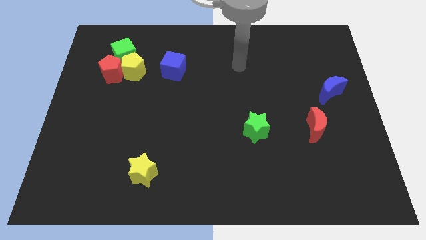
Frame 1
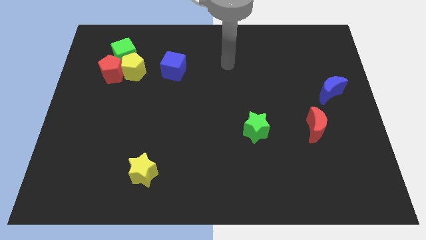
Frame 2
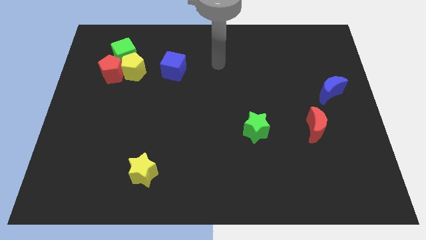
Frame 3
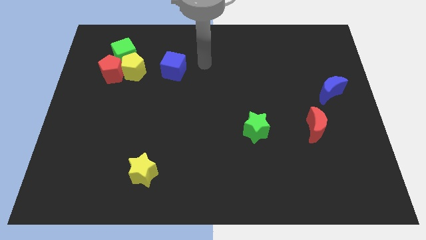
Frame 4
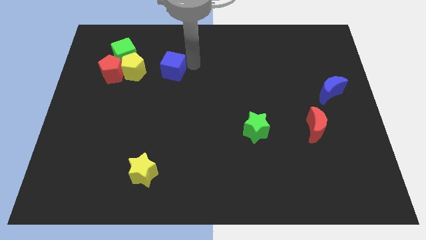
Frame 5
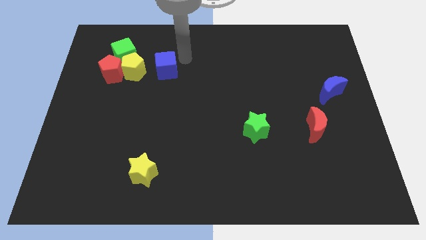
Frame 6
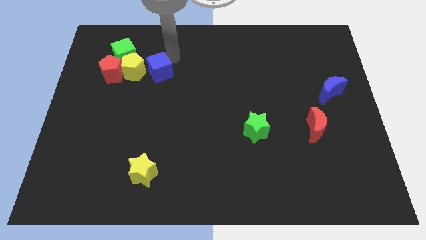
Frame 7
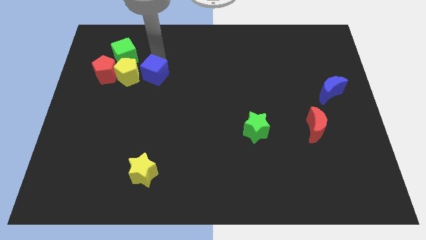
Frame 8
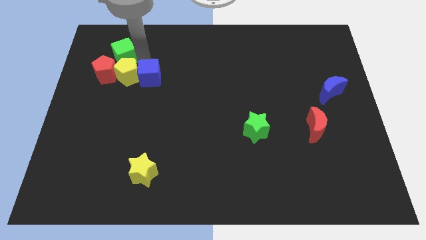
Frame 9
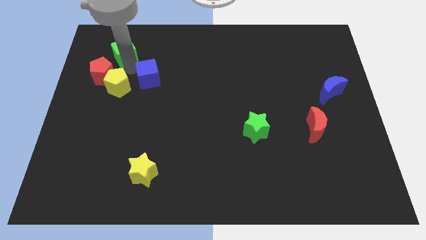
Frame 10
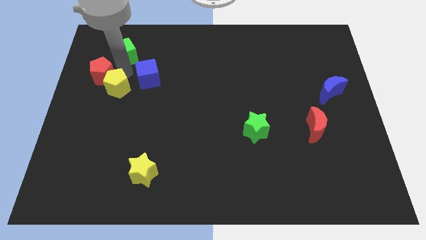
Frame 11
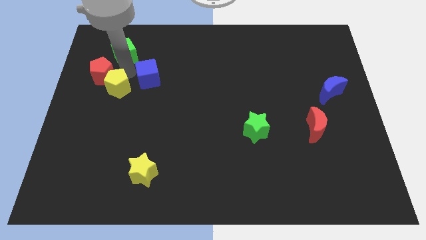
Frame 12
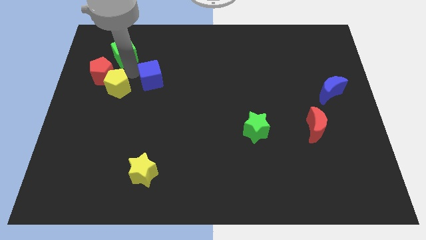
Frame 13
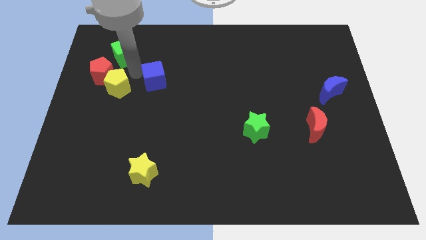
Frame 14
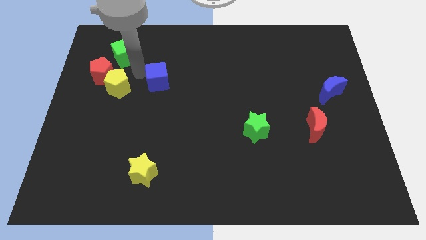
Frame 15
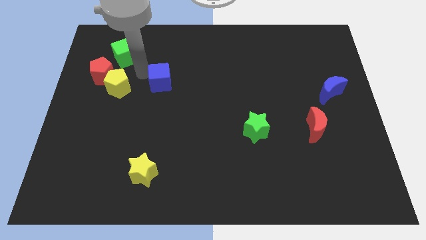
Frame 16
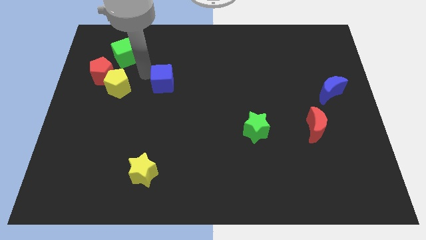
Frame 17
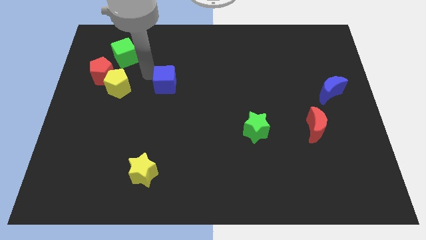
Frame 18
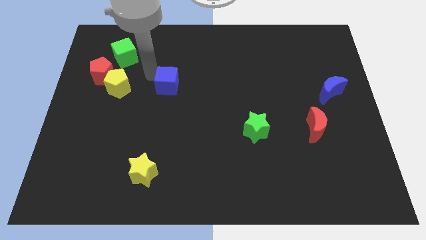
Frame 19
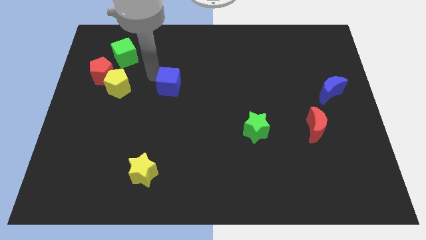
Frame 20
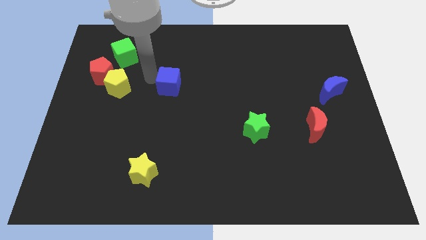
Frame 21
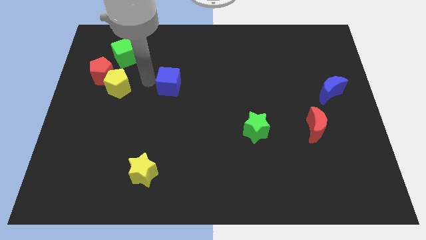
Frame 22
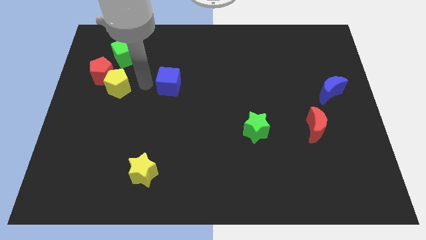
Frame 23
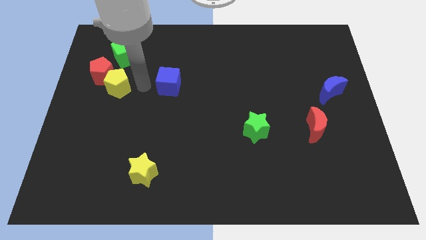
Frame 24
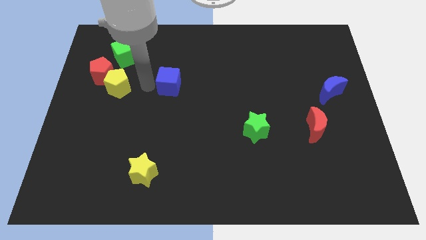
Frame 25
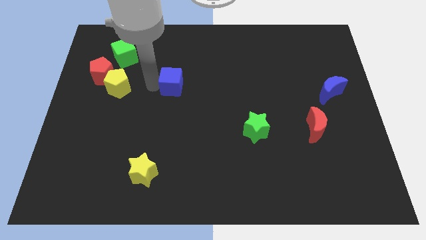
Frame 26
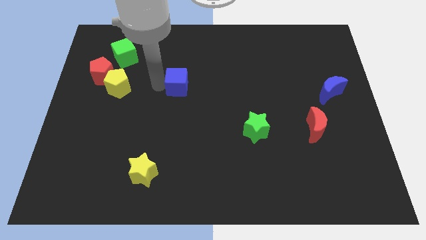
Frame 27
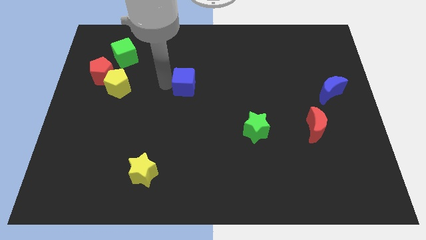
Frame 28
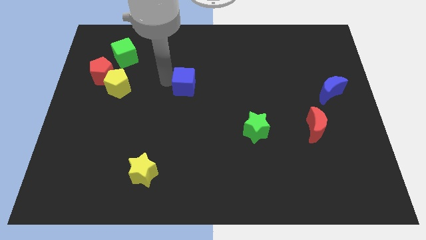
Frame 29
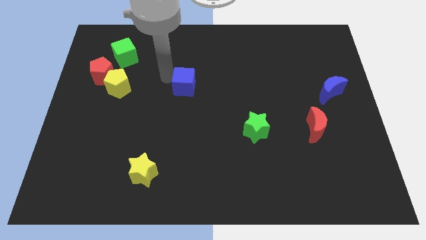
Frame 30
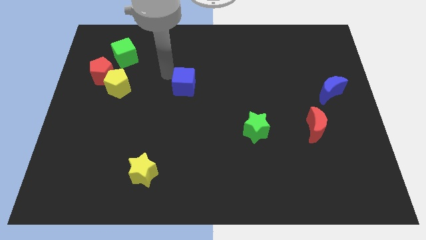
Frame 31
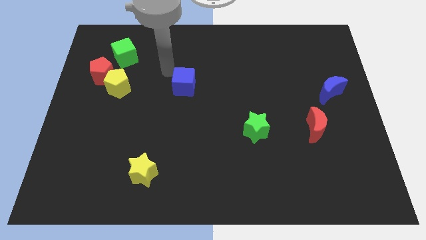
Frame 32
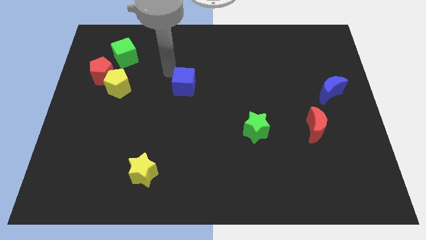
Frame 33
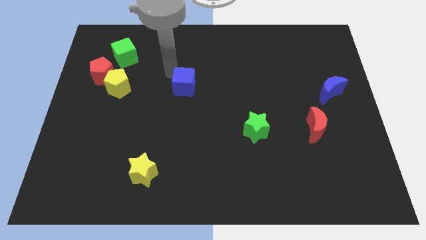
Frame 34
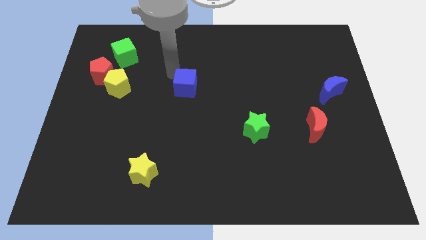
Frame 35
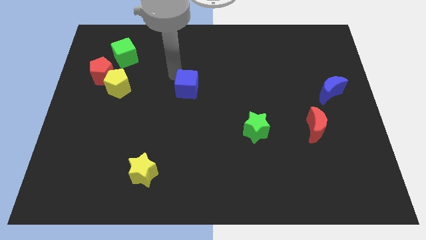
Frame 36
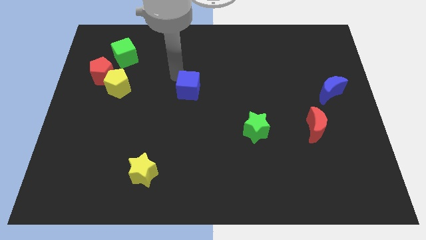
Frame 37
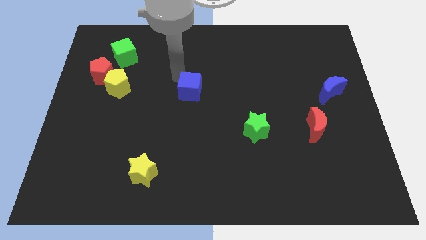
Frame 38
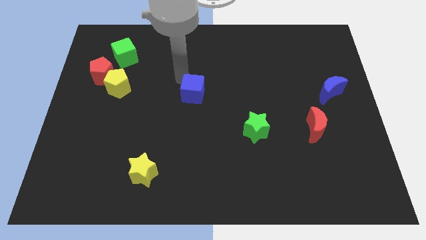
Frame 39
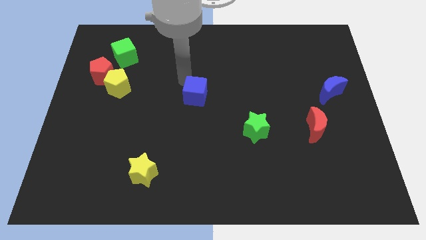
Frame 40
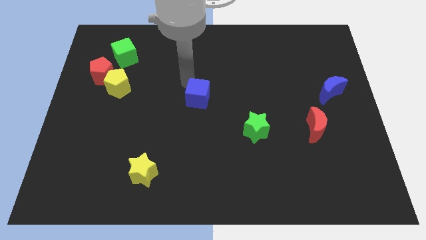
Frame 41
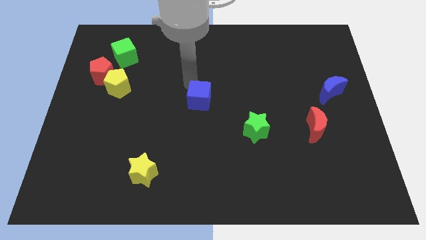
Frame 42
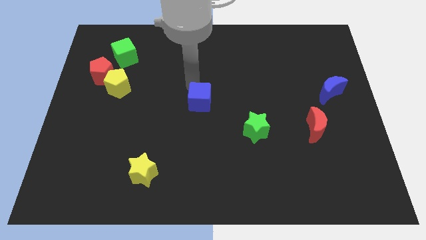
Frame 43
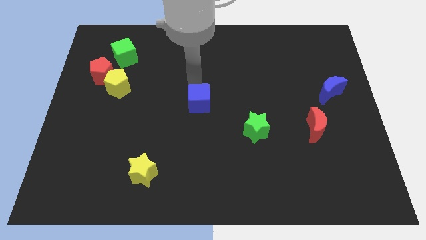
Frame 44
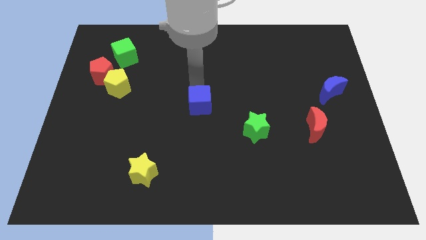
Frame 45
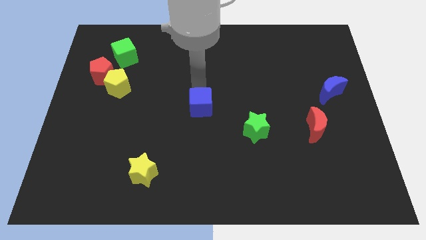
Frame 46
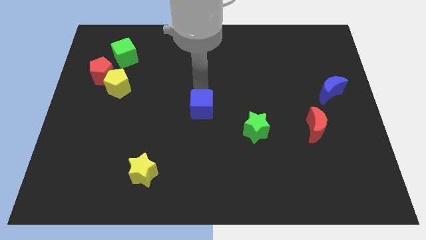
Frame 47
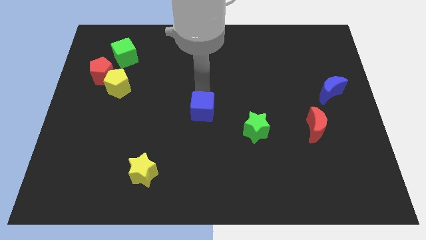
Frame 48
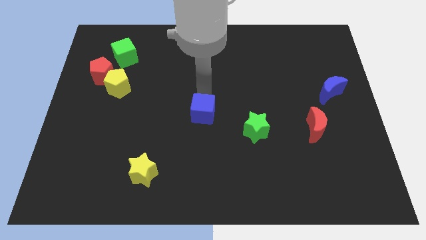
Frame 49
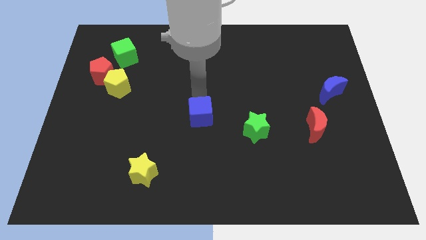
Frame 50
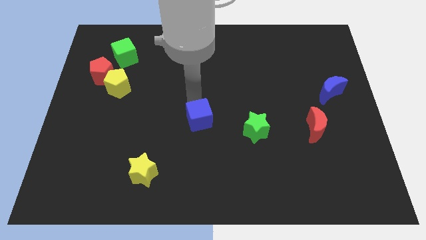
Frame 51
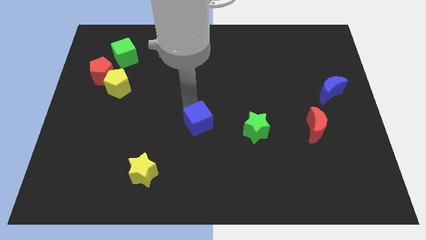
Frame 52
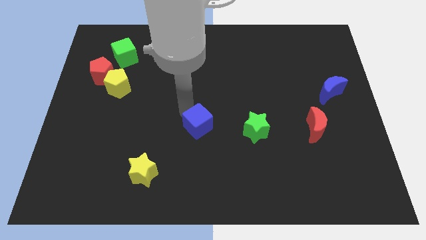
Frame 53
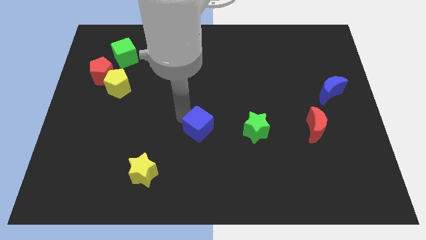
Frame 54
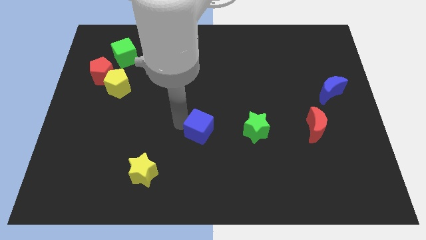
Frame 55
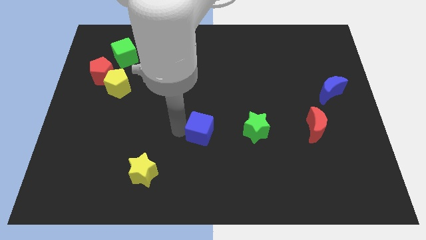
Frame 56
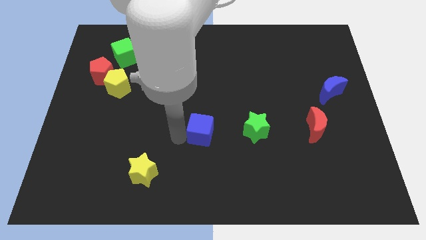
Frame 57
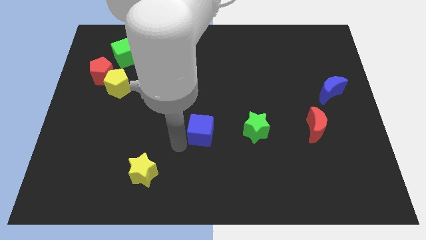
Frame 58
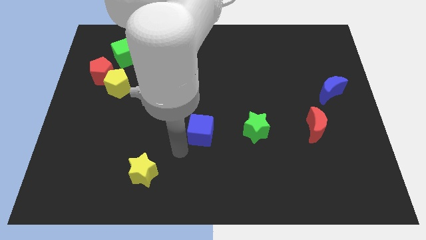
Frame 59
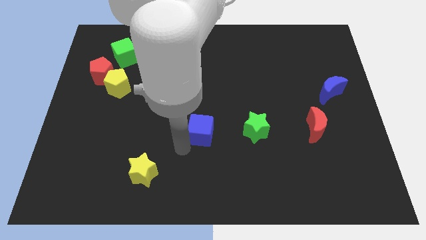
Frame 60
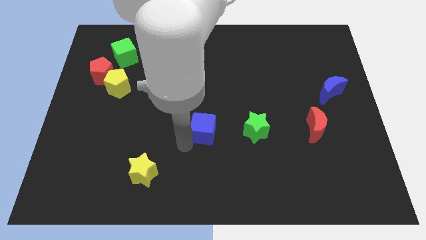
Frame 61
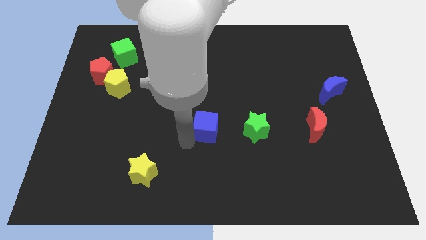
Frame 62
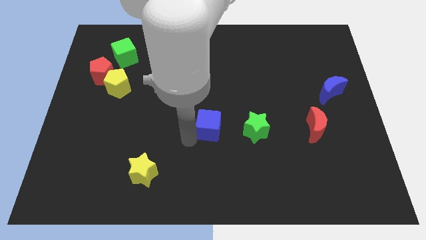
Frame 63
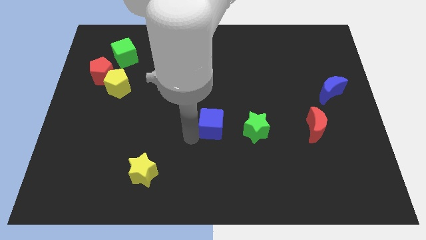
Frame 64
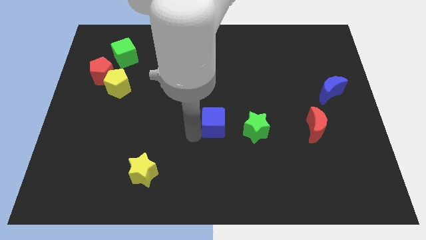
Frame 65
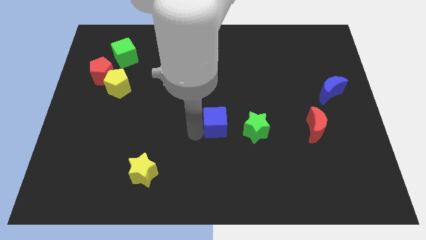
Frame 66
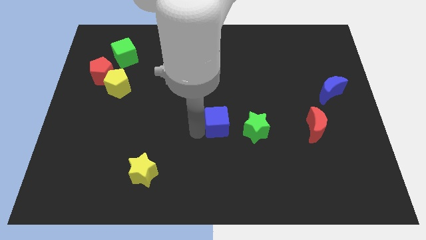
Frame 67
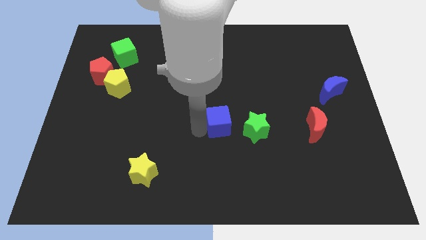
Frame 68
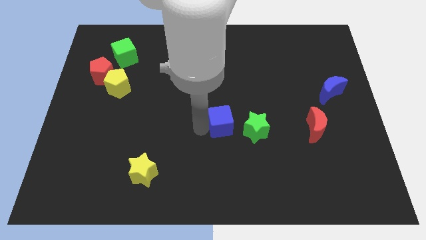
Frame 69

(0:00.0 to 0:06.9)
move the blue cube diagonally down and to the right

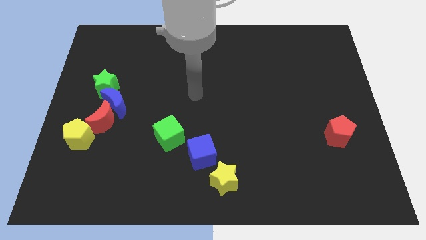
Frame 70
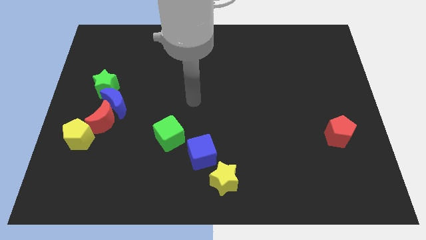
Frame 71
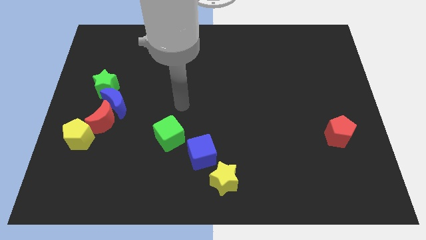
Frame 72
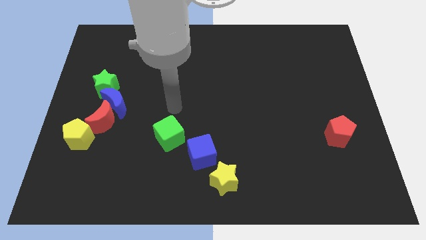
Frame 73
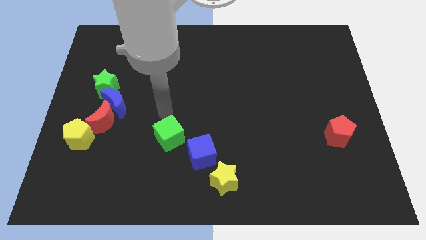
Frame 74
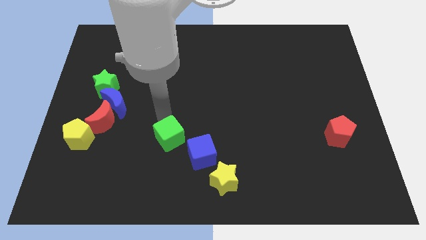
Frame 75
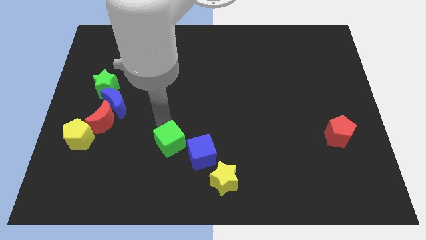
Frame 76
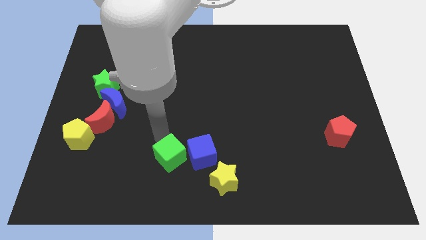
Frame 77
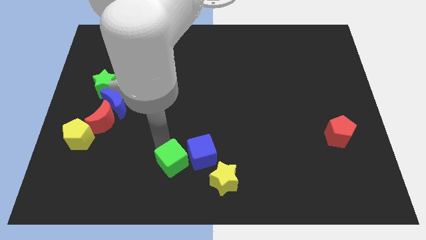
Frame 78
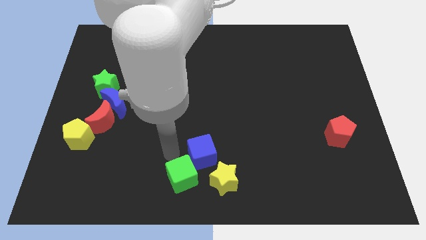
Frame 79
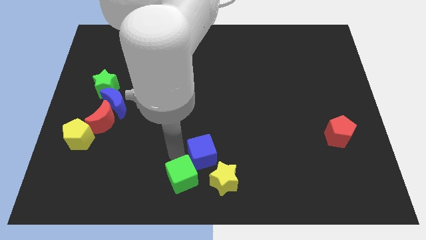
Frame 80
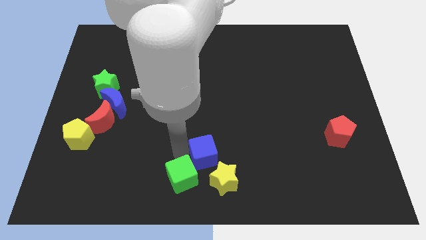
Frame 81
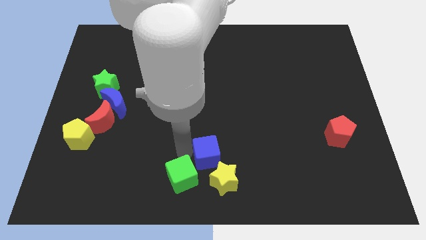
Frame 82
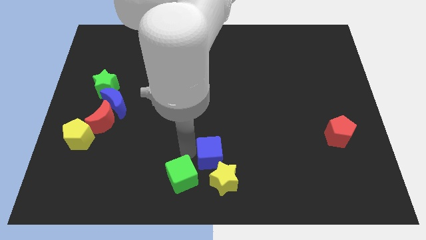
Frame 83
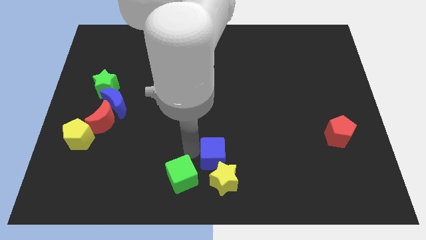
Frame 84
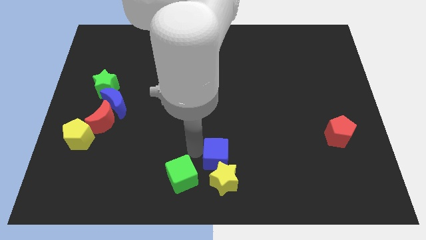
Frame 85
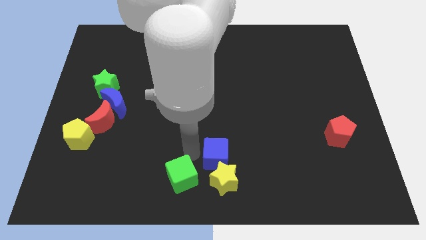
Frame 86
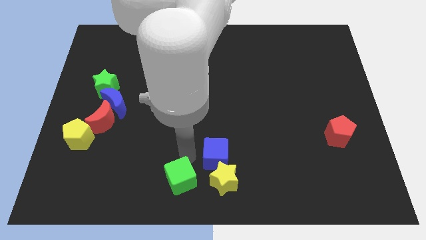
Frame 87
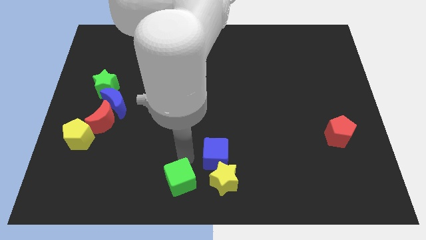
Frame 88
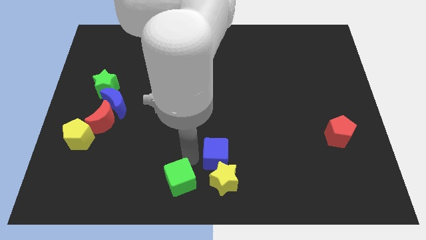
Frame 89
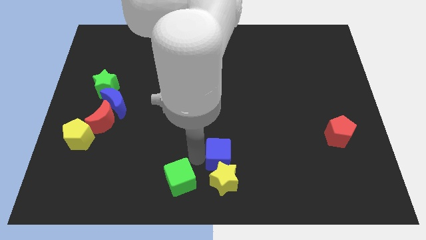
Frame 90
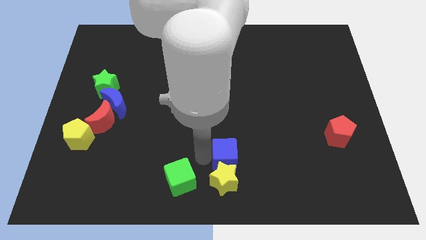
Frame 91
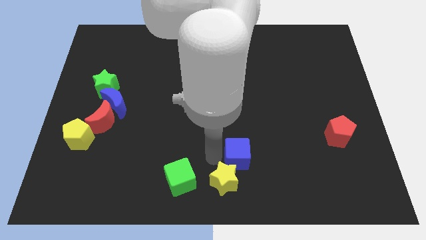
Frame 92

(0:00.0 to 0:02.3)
push the blue cube right a bit
